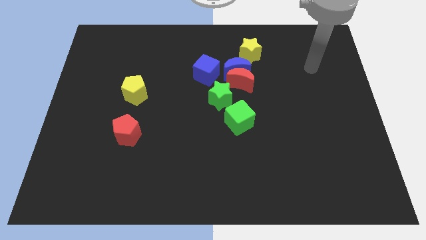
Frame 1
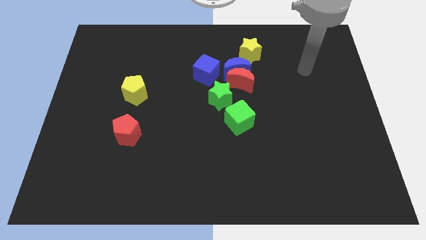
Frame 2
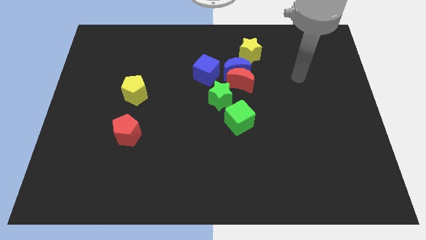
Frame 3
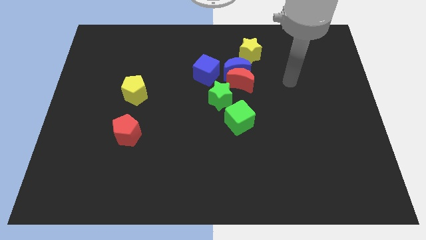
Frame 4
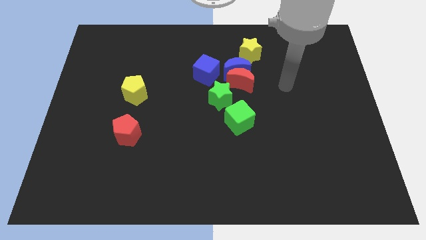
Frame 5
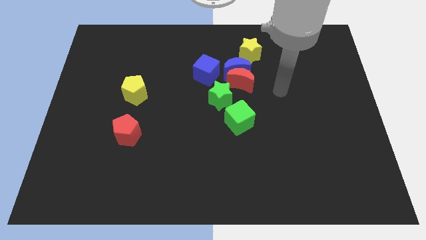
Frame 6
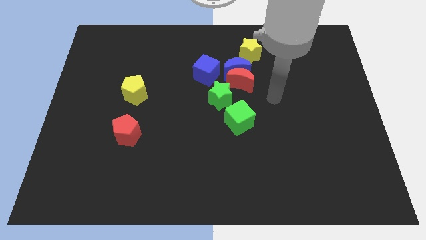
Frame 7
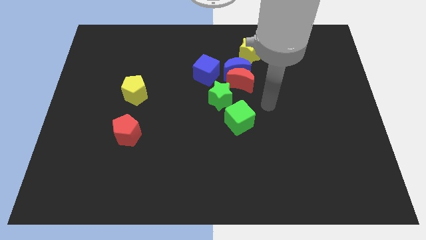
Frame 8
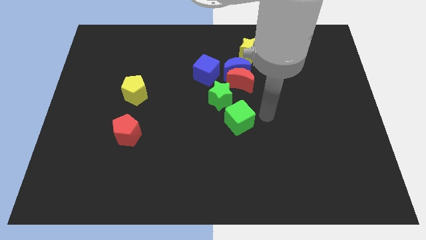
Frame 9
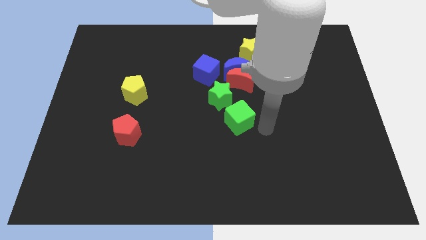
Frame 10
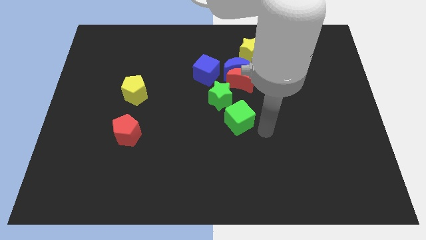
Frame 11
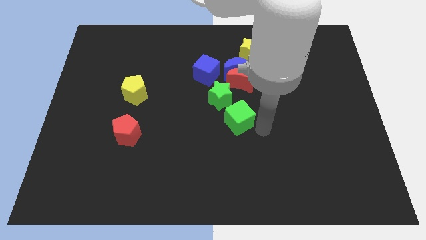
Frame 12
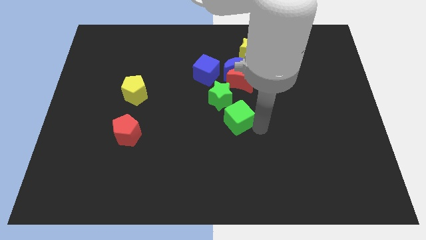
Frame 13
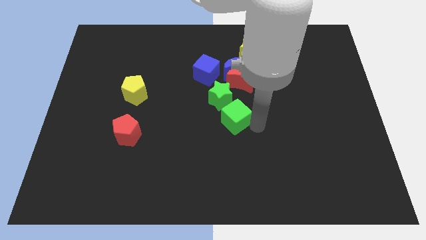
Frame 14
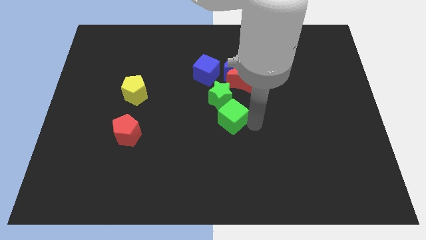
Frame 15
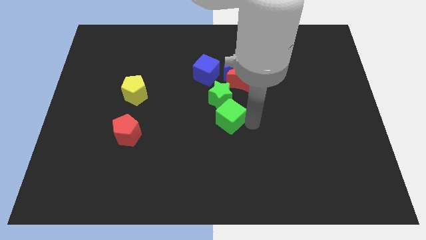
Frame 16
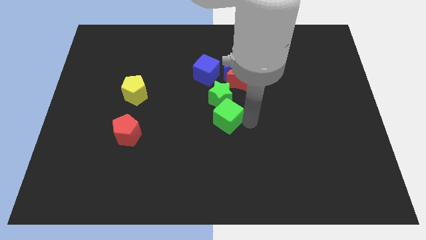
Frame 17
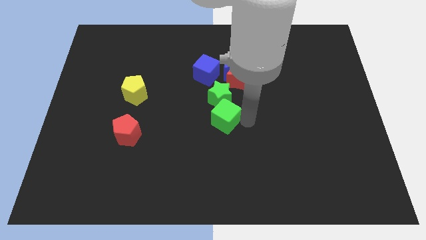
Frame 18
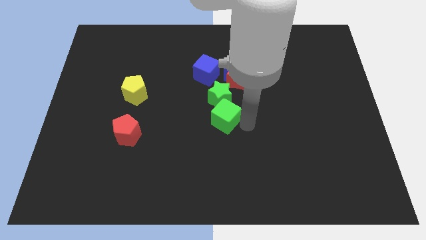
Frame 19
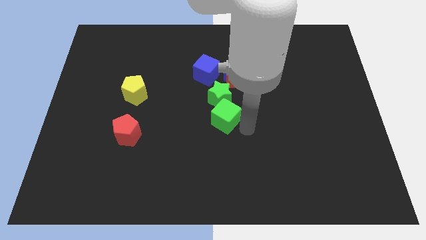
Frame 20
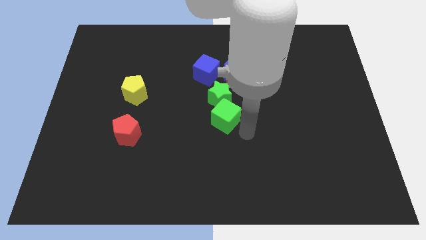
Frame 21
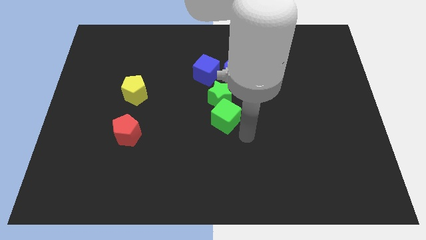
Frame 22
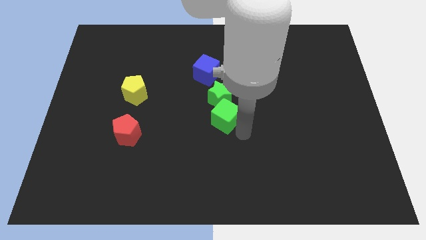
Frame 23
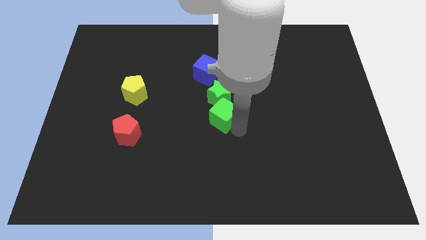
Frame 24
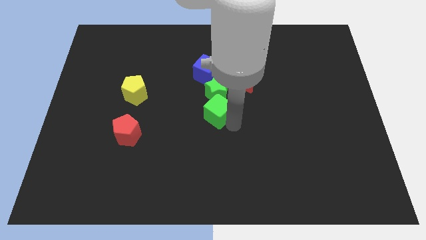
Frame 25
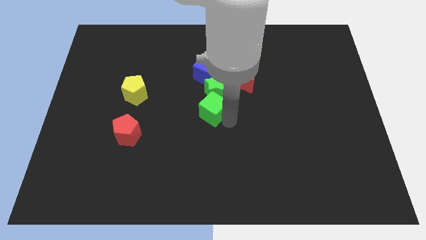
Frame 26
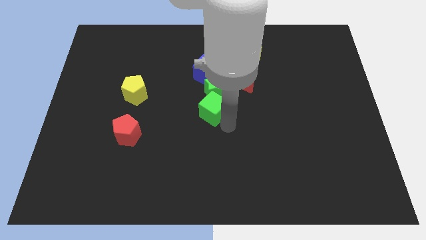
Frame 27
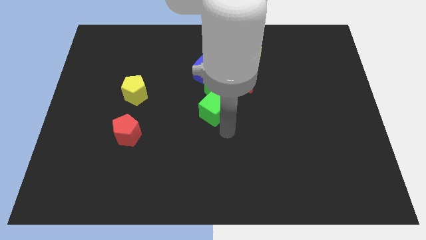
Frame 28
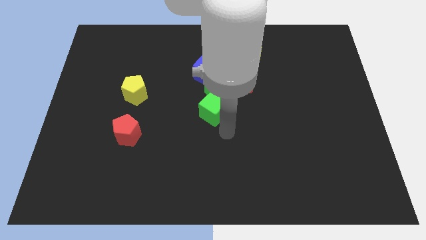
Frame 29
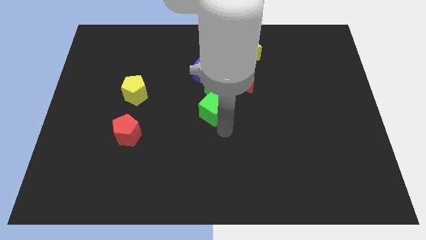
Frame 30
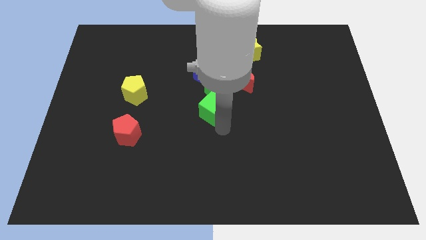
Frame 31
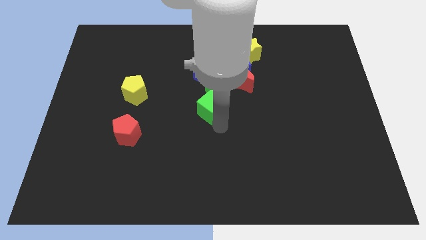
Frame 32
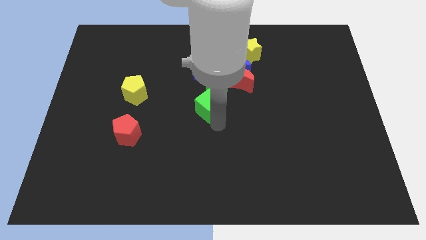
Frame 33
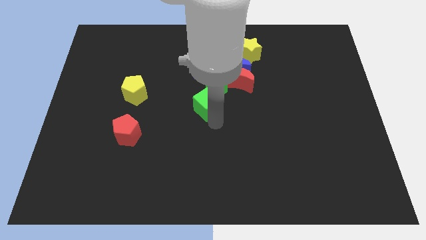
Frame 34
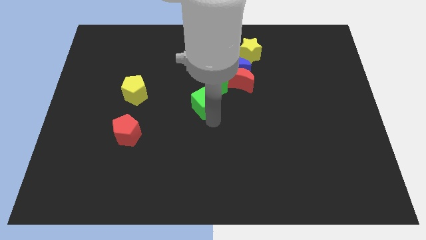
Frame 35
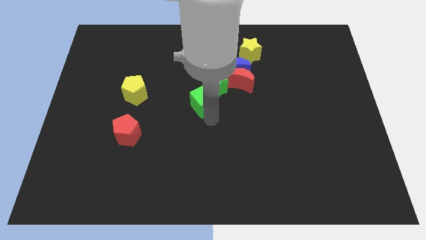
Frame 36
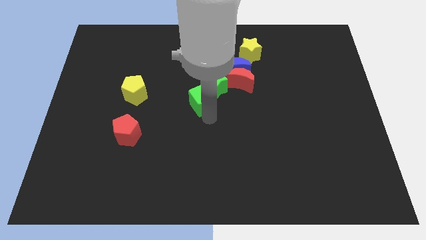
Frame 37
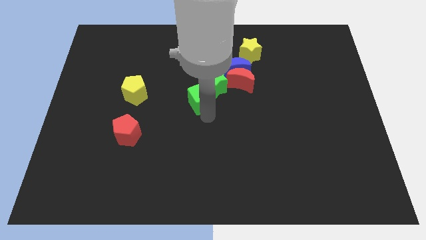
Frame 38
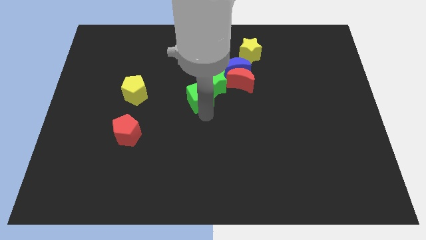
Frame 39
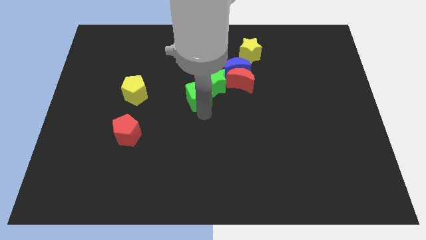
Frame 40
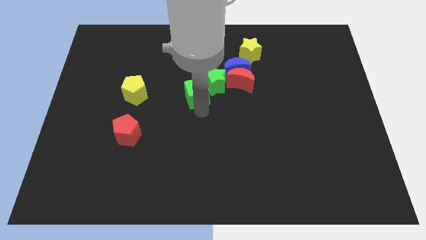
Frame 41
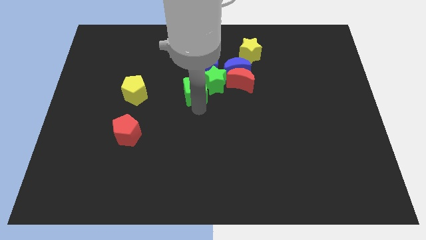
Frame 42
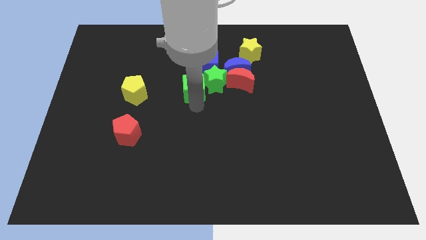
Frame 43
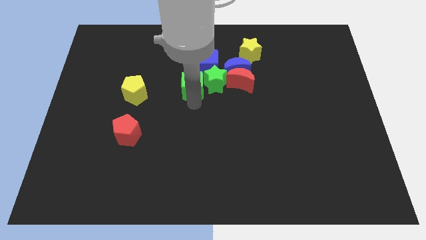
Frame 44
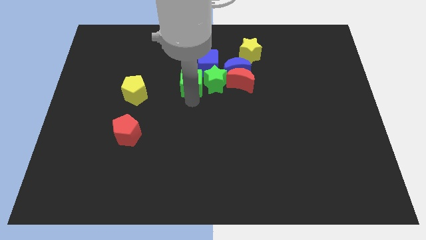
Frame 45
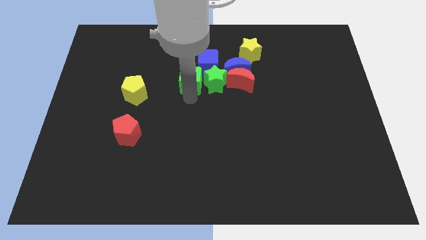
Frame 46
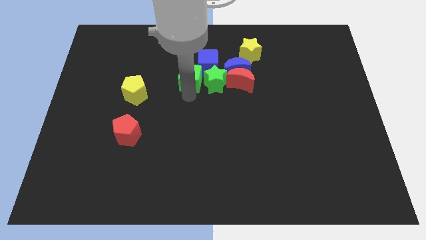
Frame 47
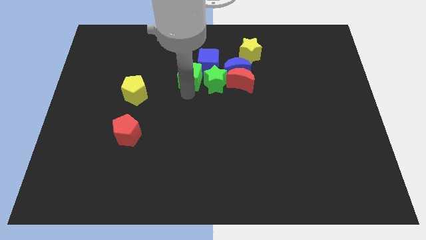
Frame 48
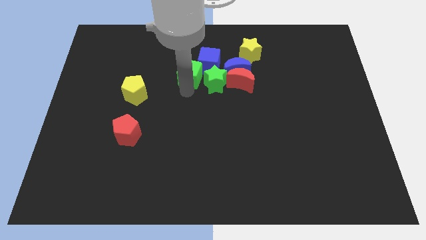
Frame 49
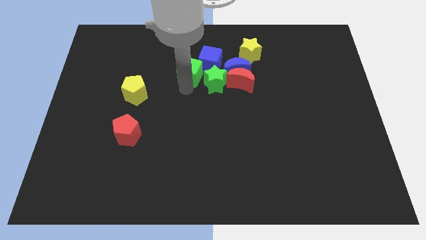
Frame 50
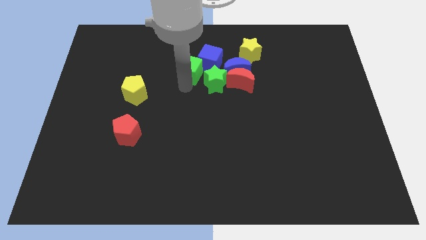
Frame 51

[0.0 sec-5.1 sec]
push the green cube close to the blue cube

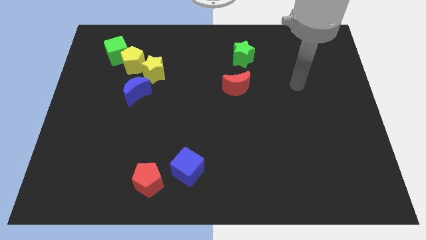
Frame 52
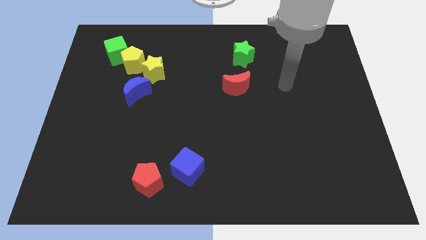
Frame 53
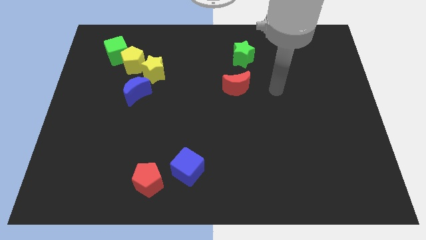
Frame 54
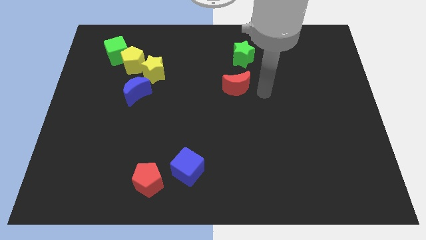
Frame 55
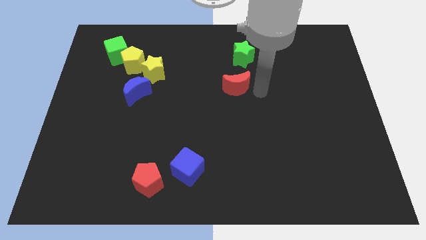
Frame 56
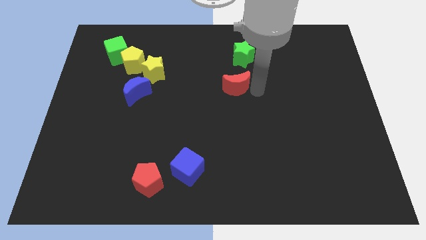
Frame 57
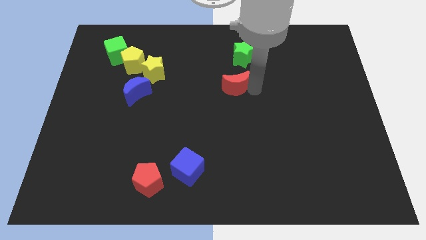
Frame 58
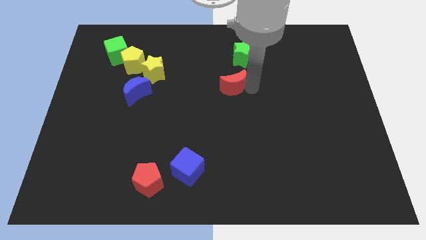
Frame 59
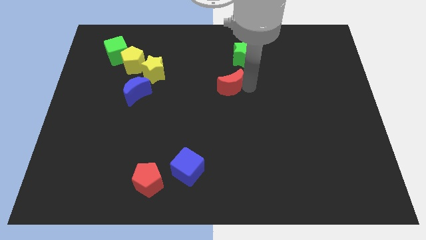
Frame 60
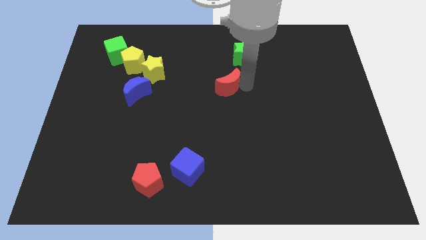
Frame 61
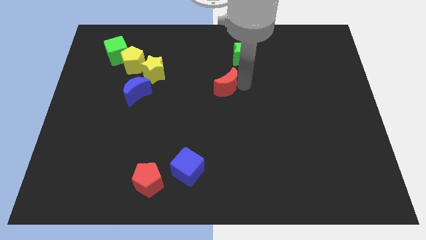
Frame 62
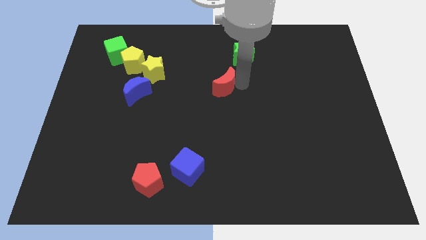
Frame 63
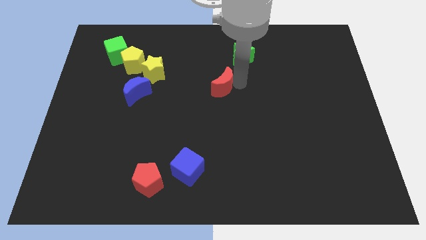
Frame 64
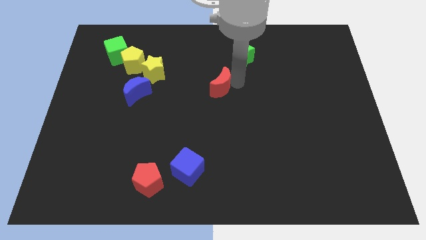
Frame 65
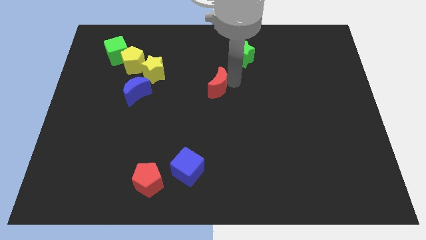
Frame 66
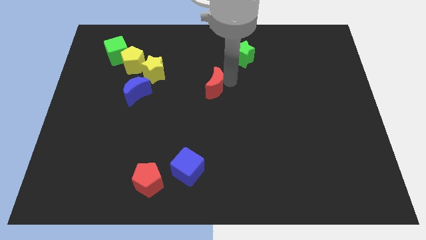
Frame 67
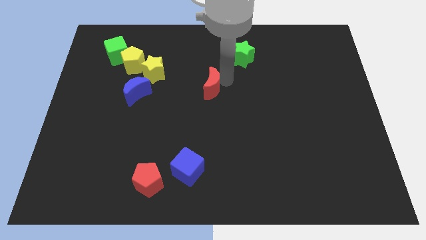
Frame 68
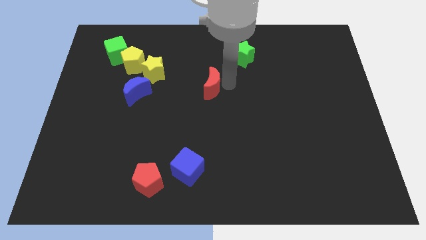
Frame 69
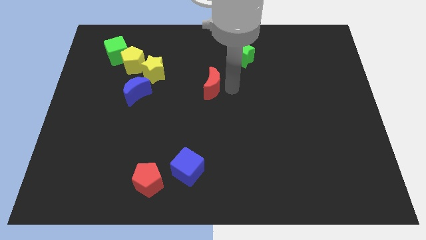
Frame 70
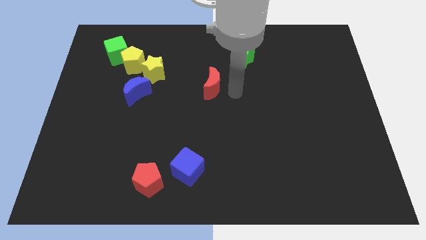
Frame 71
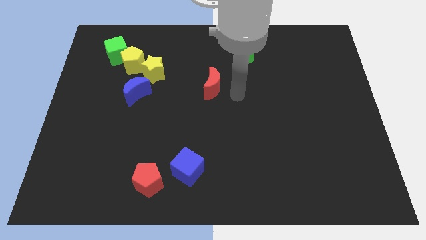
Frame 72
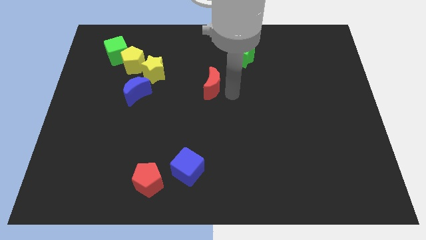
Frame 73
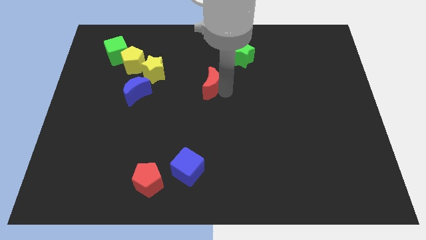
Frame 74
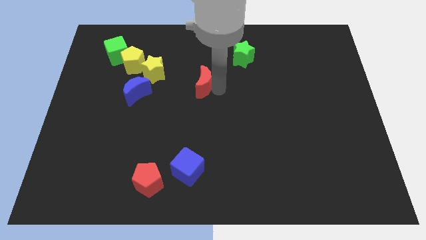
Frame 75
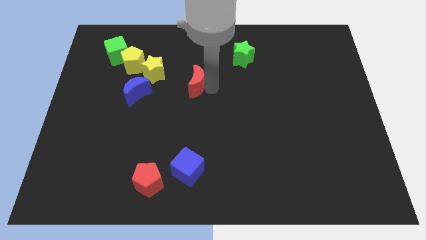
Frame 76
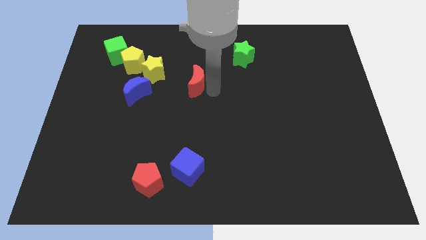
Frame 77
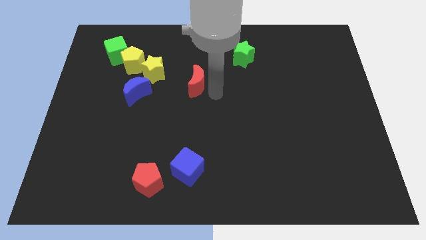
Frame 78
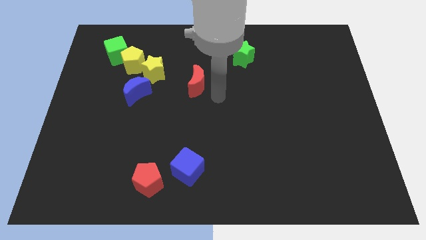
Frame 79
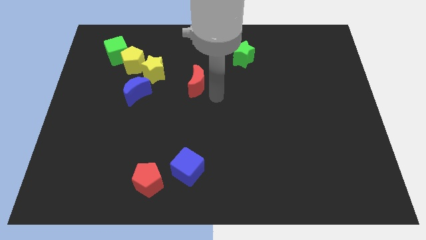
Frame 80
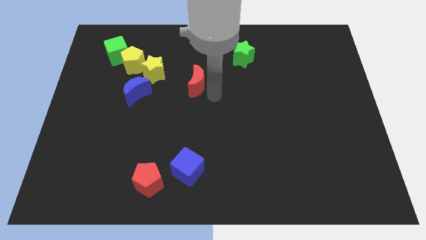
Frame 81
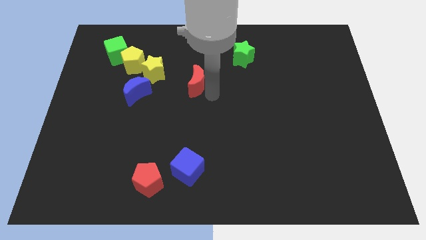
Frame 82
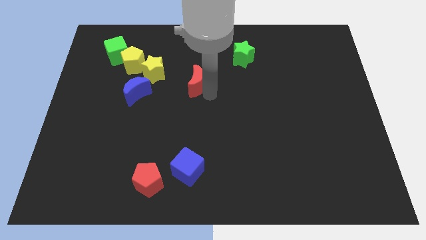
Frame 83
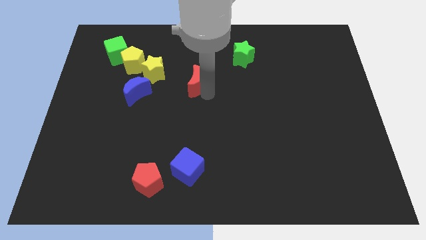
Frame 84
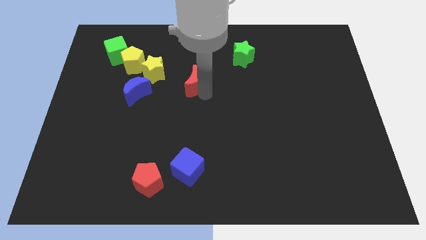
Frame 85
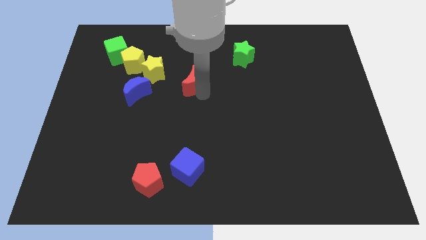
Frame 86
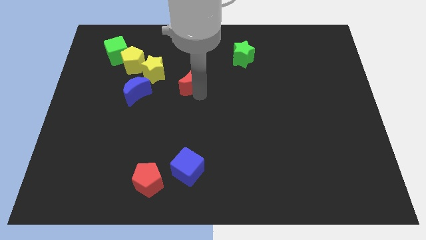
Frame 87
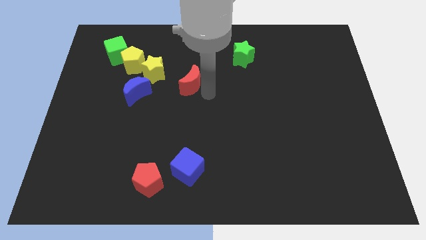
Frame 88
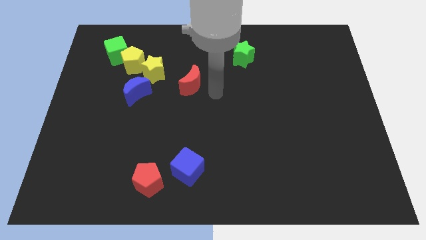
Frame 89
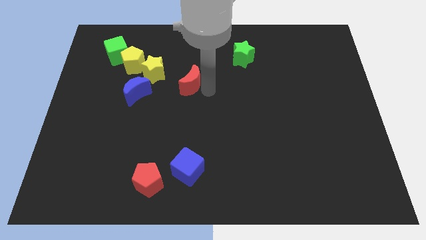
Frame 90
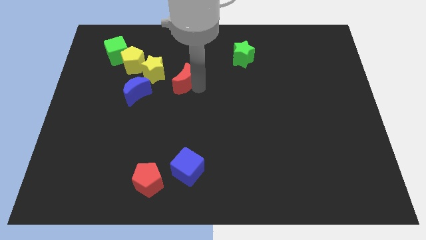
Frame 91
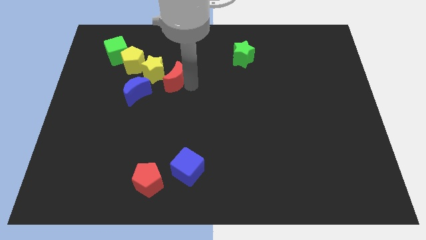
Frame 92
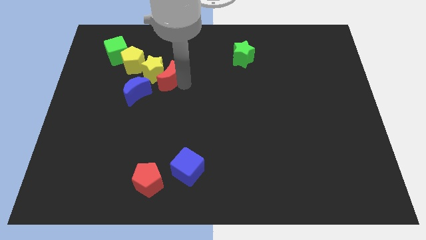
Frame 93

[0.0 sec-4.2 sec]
move the red moon next to the yellow star
